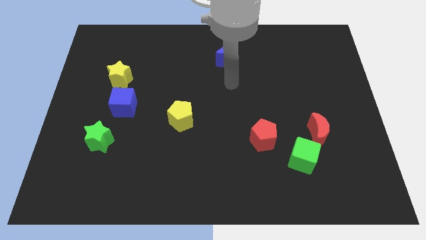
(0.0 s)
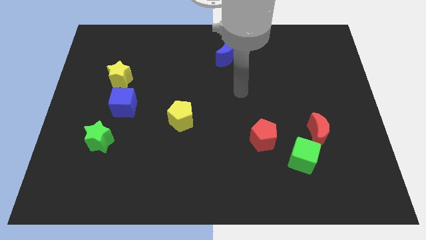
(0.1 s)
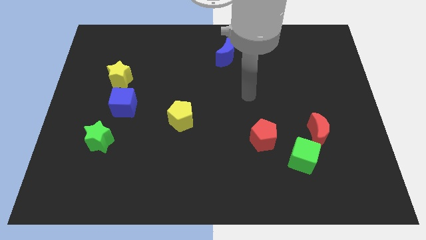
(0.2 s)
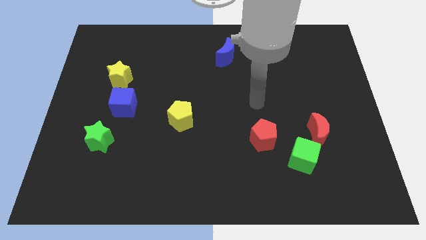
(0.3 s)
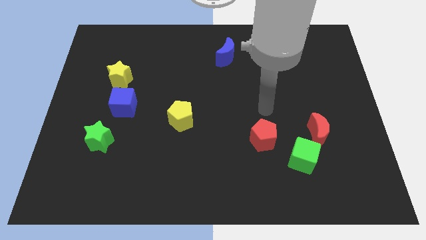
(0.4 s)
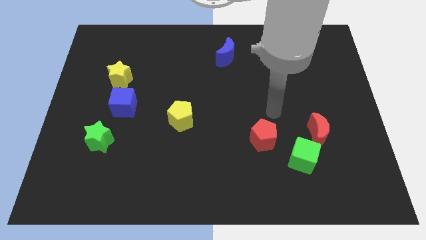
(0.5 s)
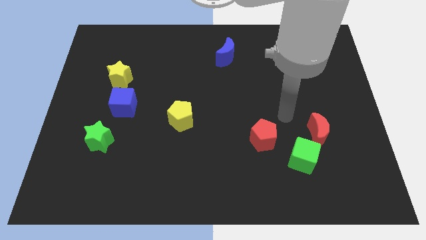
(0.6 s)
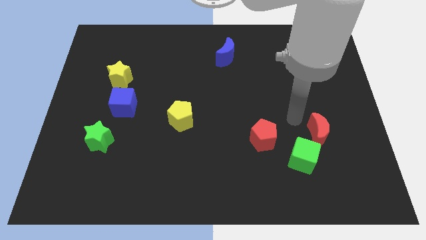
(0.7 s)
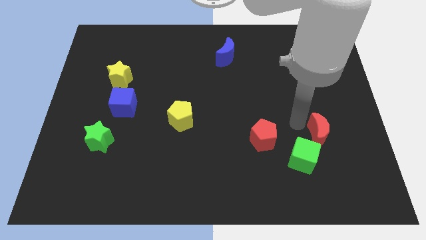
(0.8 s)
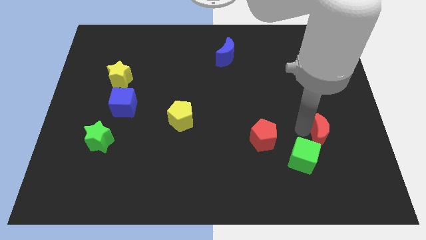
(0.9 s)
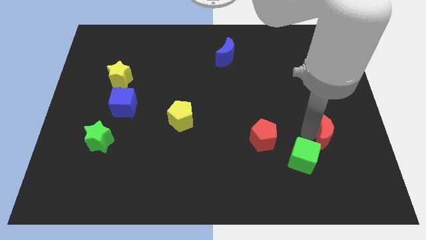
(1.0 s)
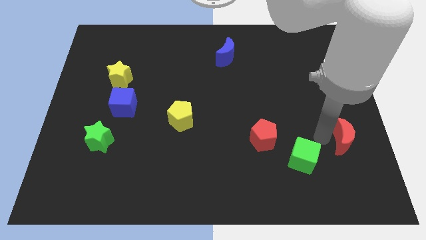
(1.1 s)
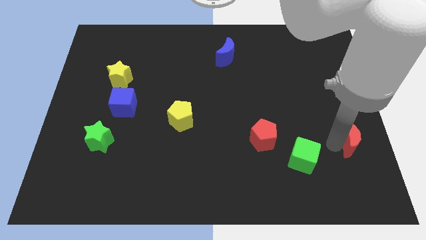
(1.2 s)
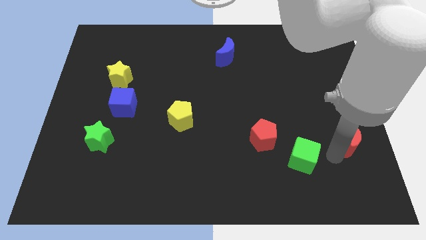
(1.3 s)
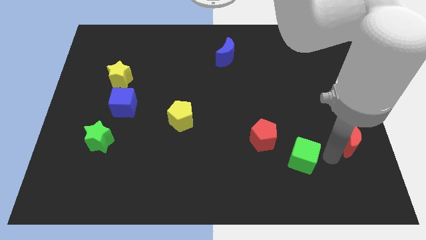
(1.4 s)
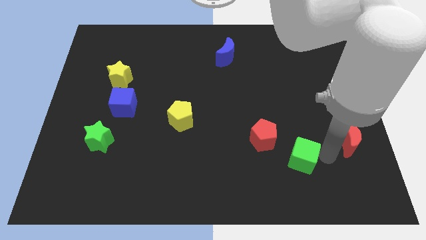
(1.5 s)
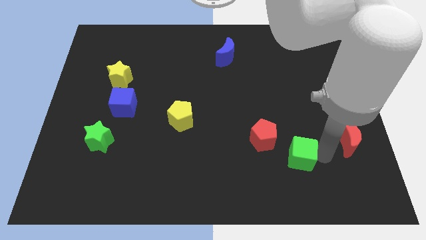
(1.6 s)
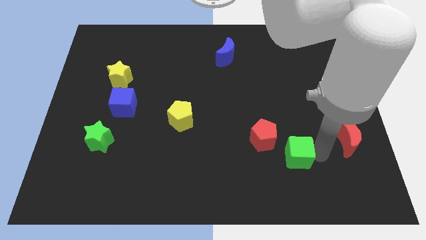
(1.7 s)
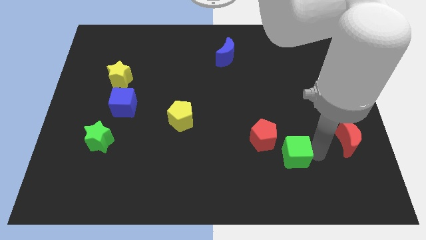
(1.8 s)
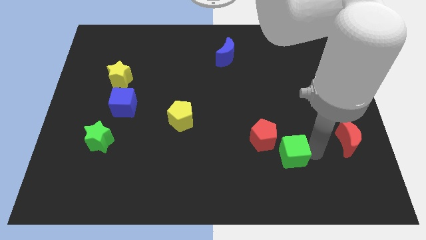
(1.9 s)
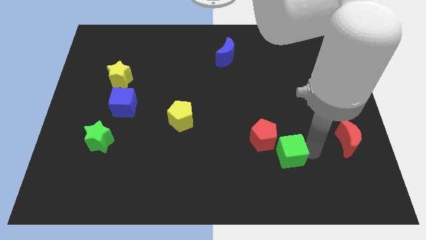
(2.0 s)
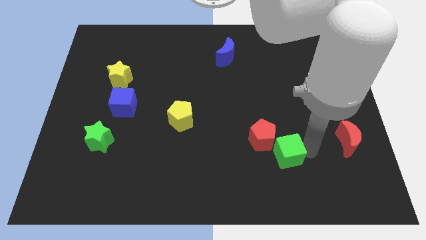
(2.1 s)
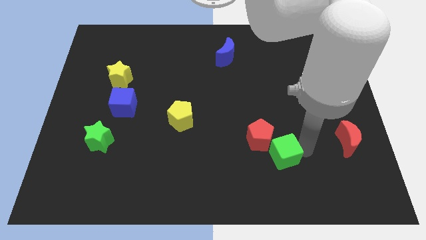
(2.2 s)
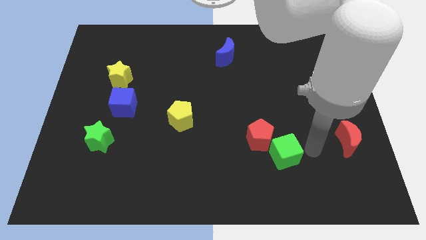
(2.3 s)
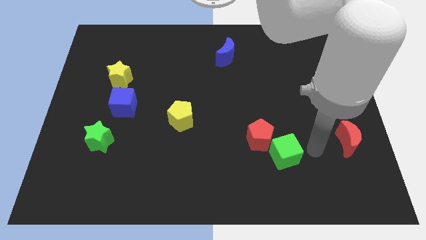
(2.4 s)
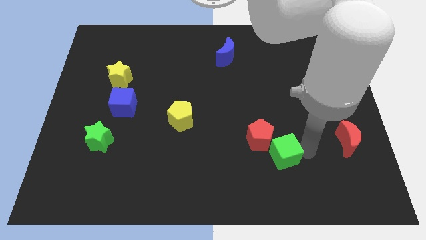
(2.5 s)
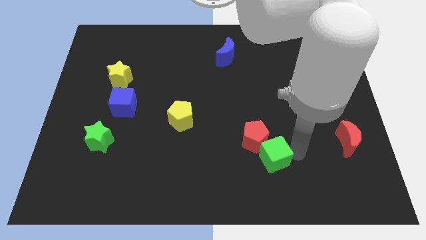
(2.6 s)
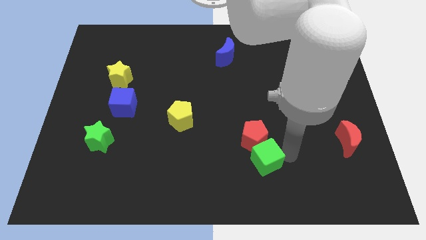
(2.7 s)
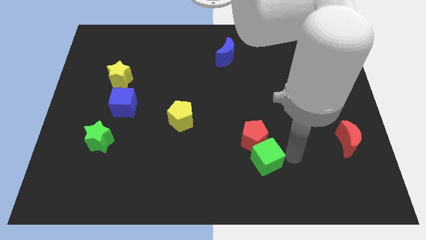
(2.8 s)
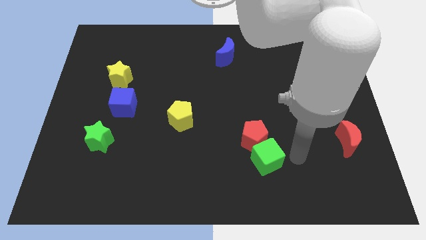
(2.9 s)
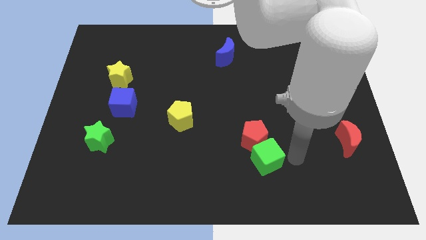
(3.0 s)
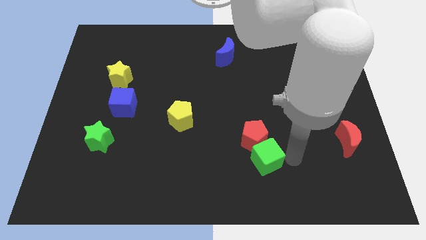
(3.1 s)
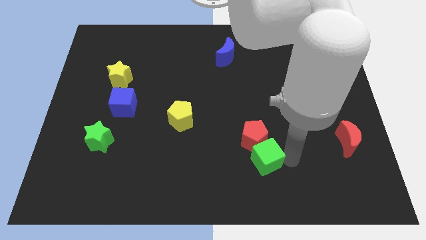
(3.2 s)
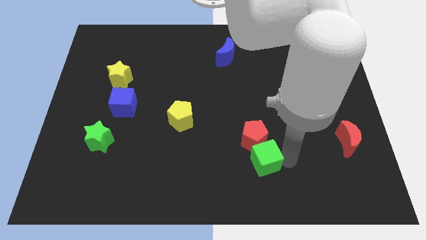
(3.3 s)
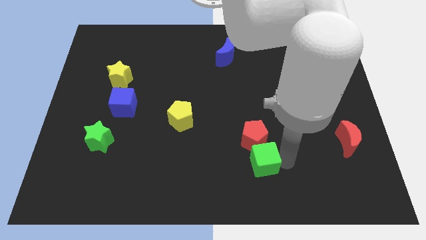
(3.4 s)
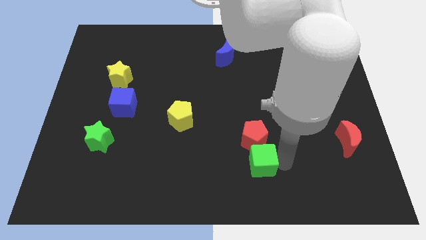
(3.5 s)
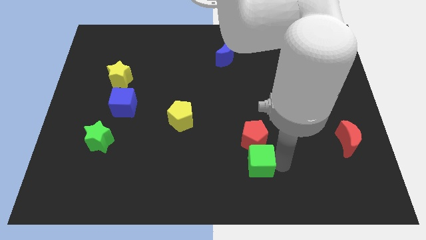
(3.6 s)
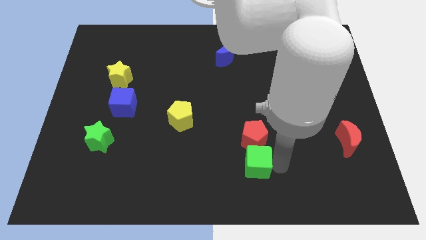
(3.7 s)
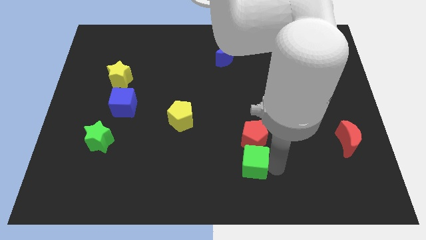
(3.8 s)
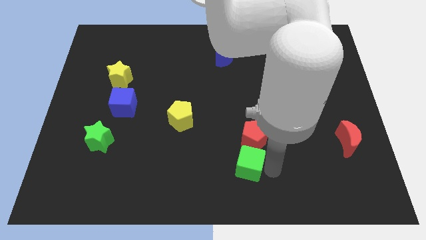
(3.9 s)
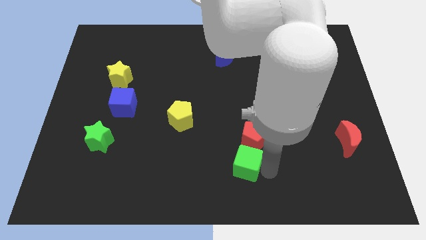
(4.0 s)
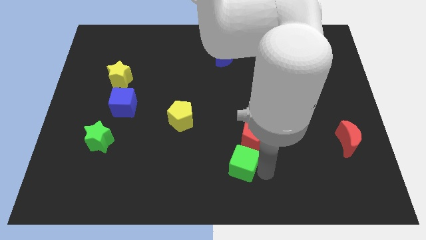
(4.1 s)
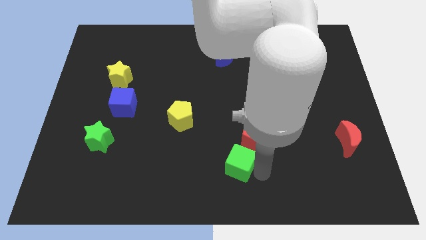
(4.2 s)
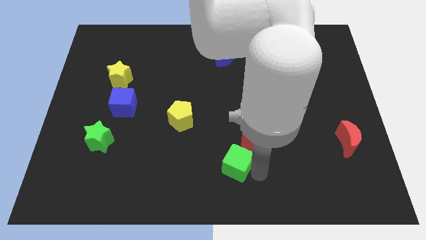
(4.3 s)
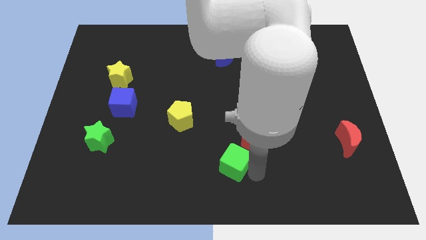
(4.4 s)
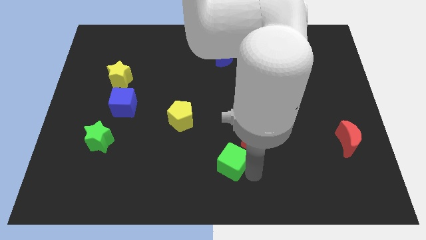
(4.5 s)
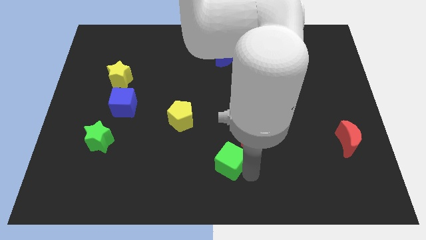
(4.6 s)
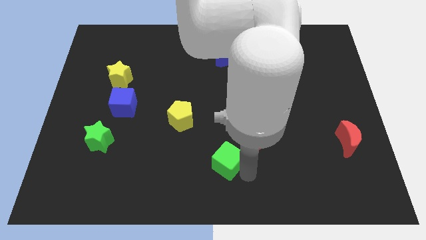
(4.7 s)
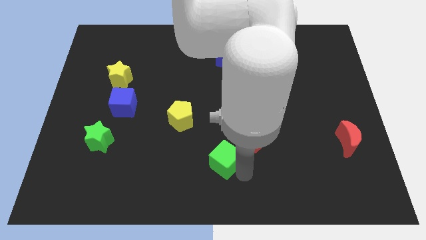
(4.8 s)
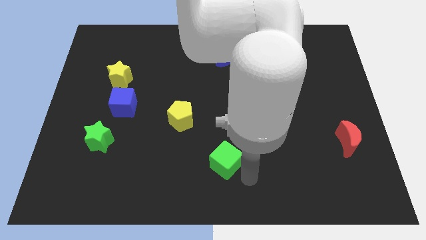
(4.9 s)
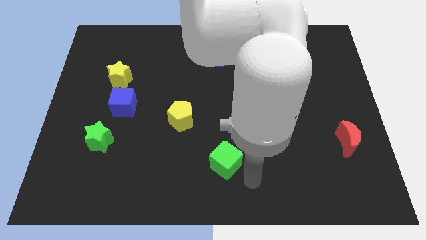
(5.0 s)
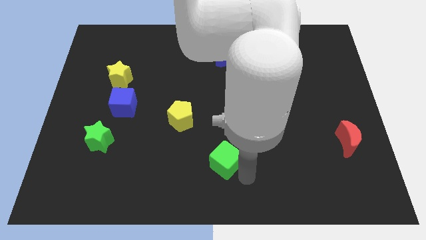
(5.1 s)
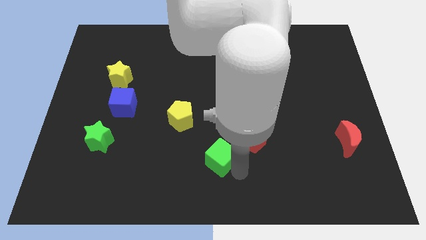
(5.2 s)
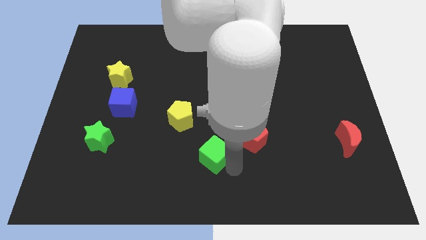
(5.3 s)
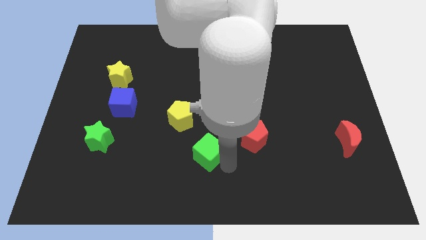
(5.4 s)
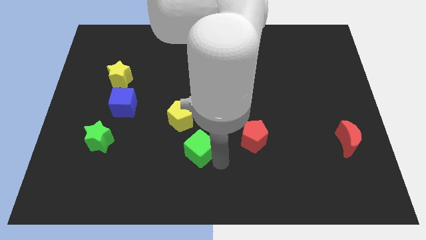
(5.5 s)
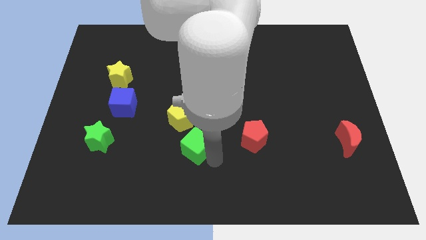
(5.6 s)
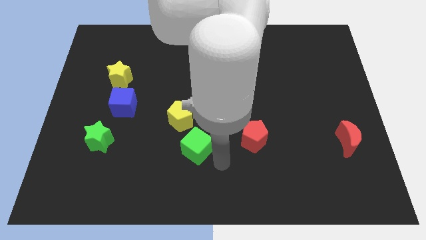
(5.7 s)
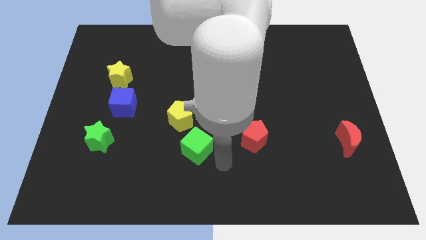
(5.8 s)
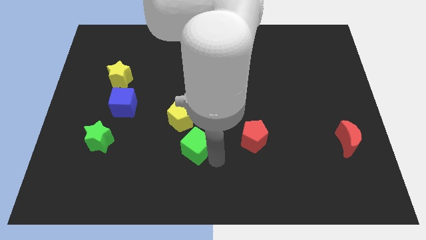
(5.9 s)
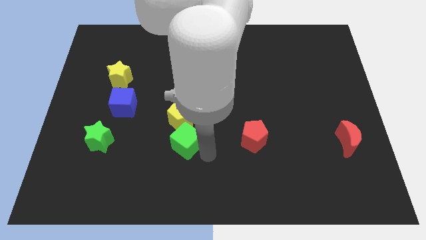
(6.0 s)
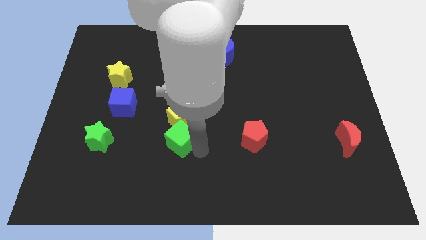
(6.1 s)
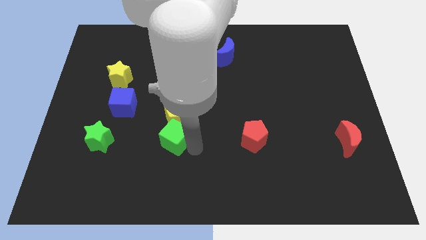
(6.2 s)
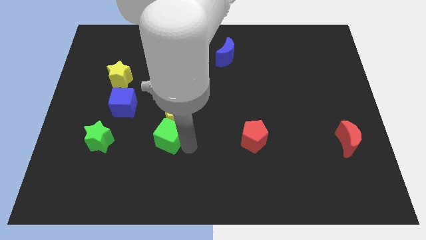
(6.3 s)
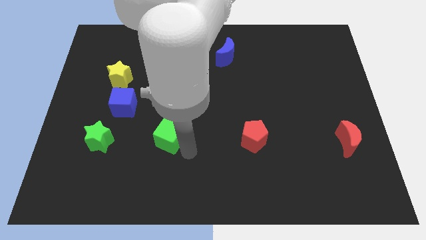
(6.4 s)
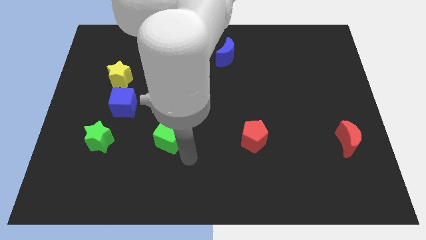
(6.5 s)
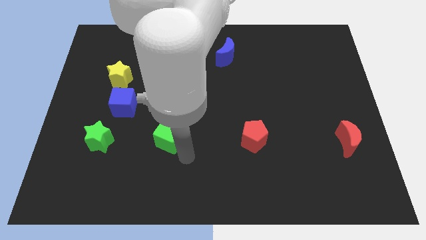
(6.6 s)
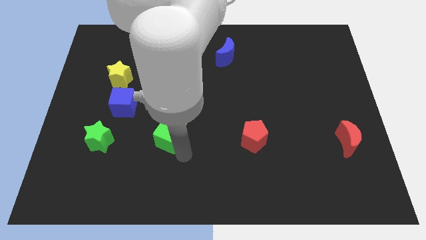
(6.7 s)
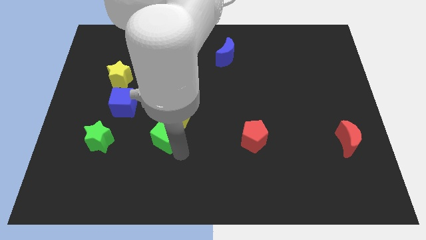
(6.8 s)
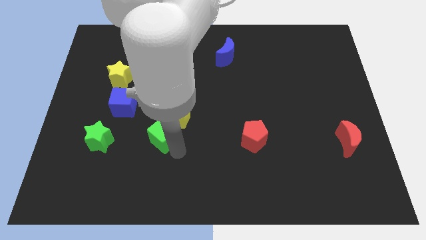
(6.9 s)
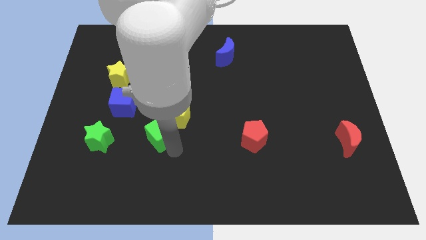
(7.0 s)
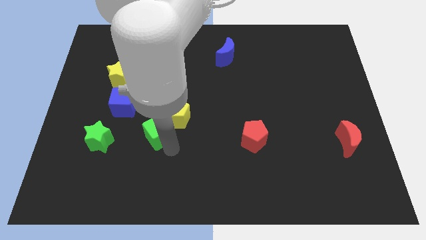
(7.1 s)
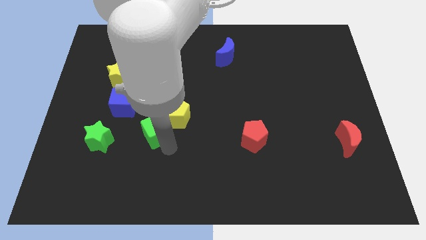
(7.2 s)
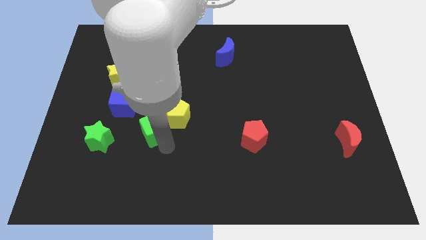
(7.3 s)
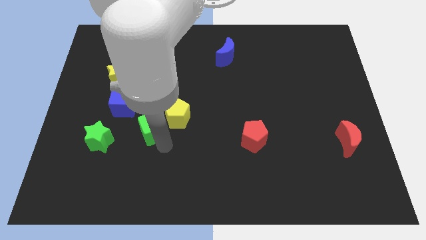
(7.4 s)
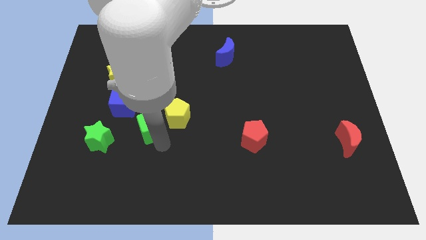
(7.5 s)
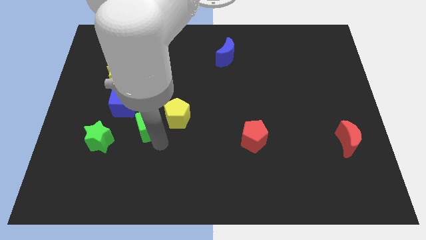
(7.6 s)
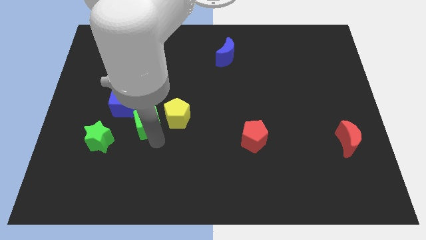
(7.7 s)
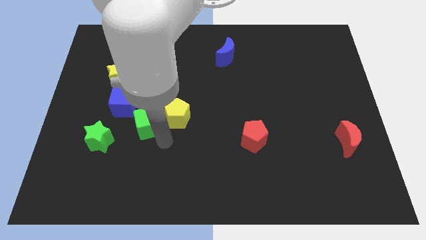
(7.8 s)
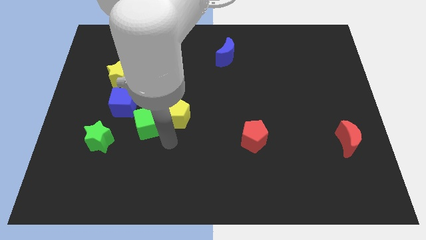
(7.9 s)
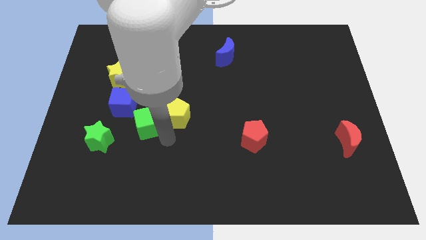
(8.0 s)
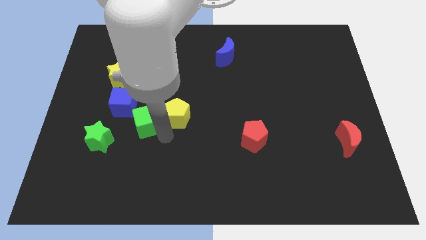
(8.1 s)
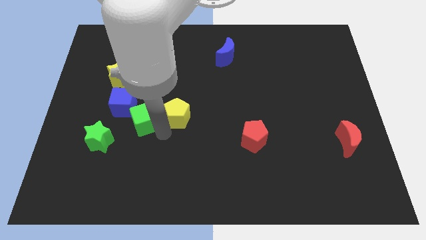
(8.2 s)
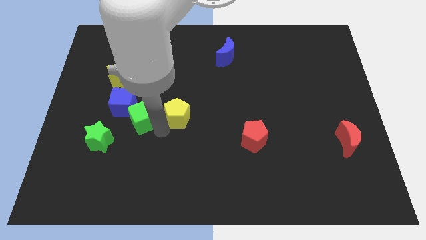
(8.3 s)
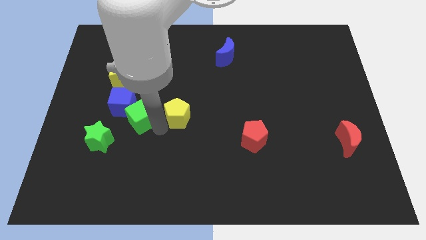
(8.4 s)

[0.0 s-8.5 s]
push the green cube to the blue cube
